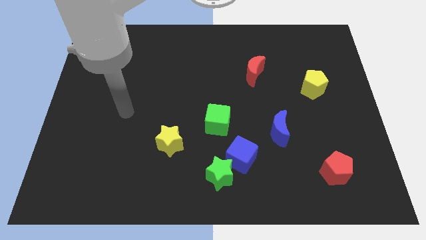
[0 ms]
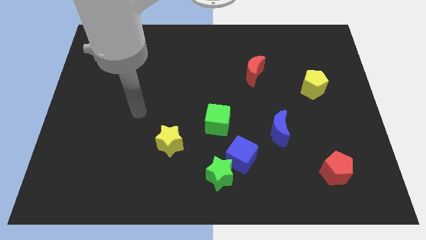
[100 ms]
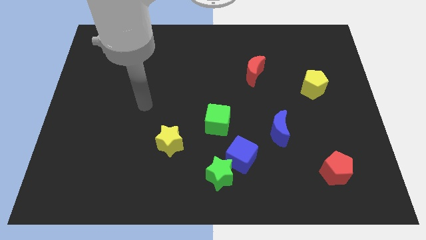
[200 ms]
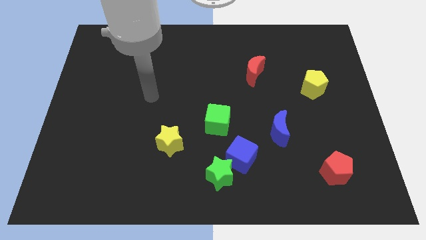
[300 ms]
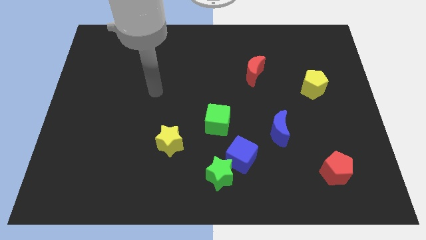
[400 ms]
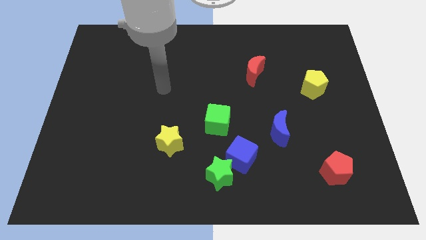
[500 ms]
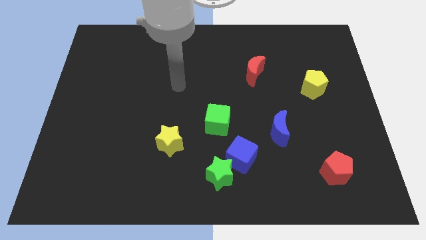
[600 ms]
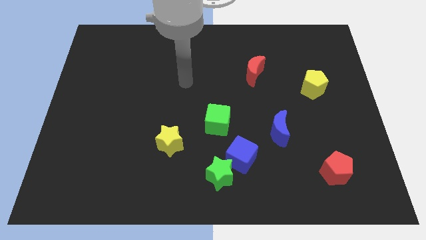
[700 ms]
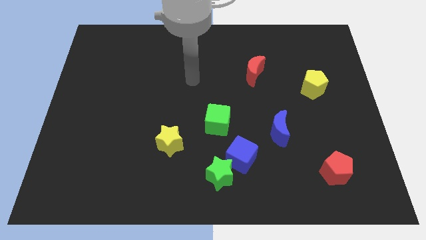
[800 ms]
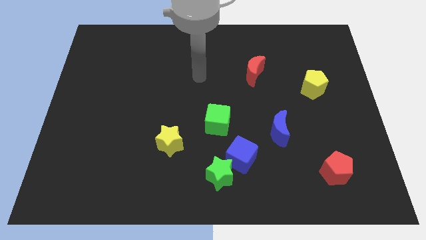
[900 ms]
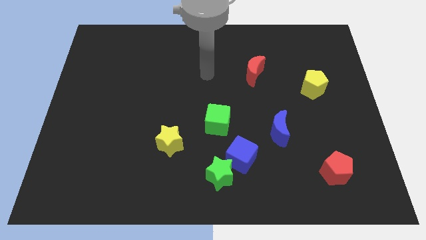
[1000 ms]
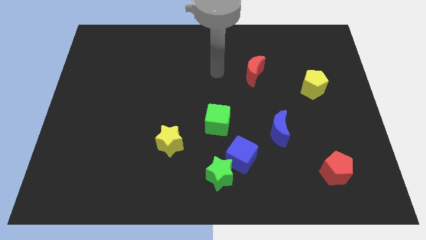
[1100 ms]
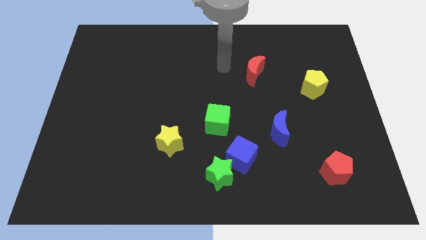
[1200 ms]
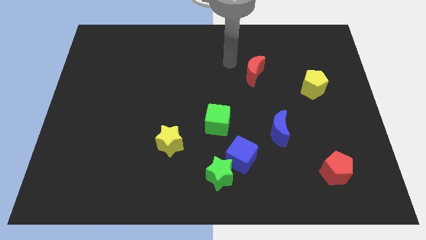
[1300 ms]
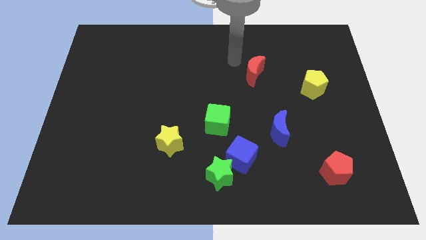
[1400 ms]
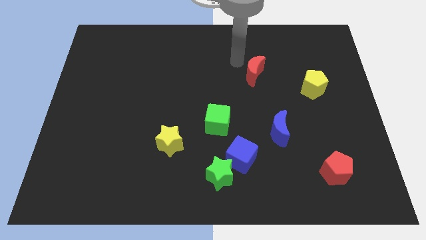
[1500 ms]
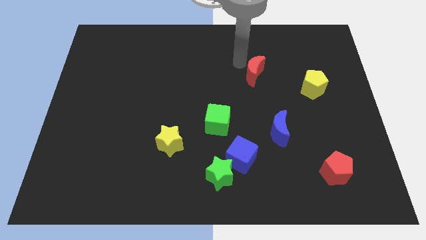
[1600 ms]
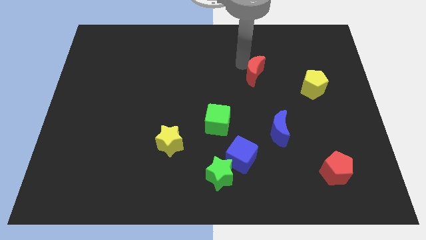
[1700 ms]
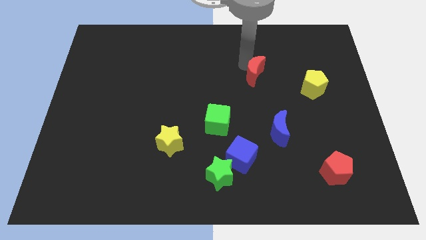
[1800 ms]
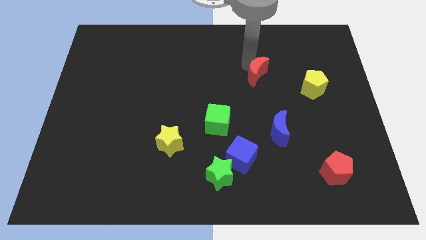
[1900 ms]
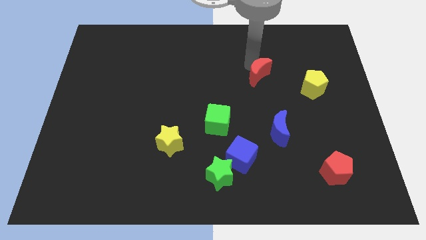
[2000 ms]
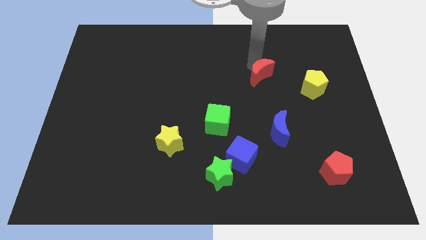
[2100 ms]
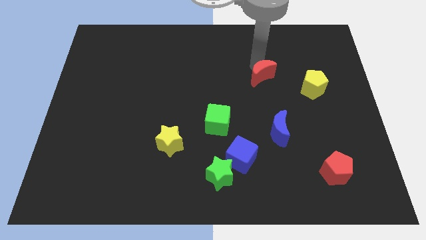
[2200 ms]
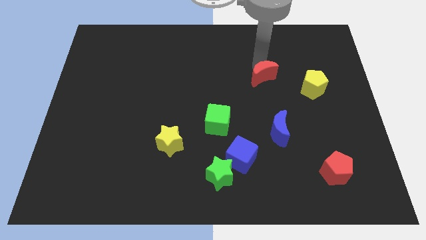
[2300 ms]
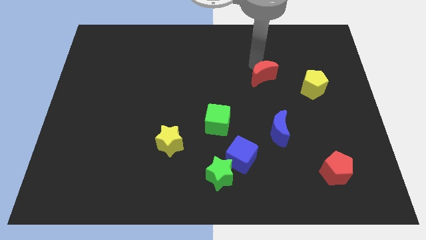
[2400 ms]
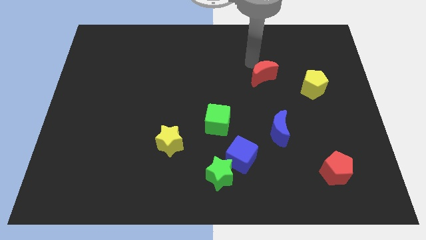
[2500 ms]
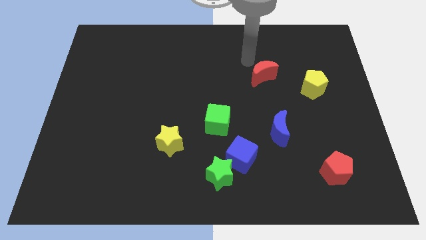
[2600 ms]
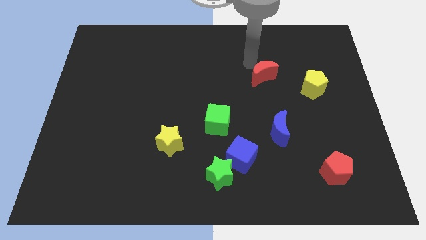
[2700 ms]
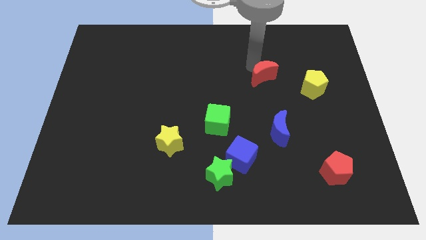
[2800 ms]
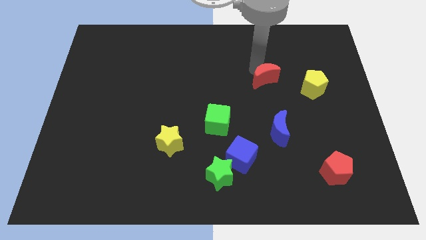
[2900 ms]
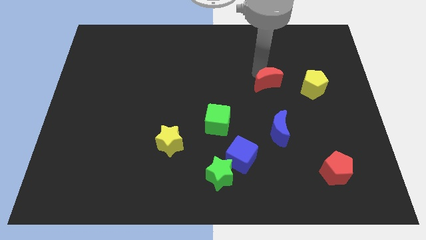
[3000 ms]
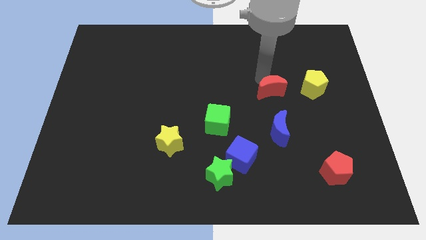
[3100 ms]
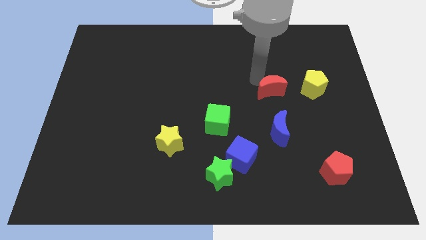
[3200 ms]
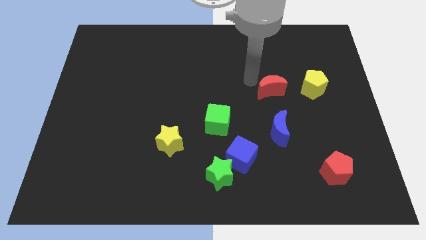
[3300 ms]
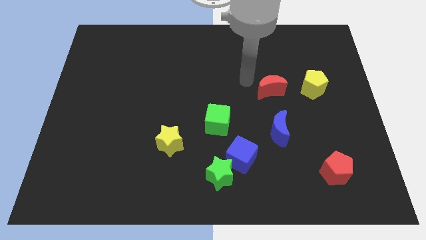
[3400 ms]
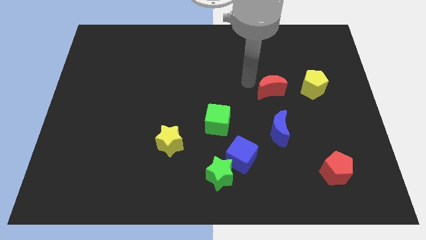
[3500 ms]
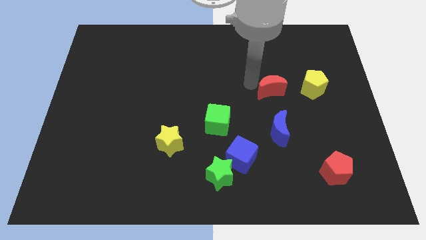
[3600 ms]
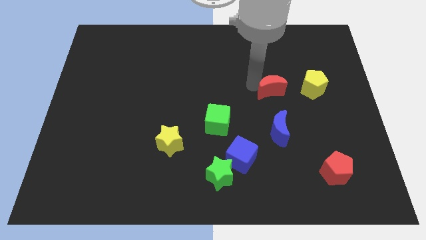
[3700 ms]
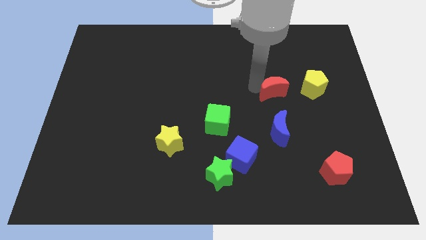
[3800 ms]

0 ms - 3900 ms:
slightly push the red moon down and right

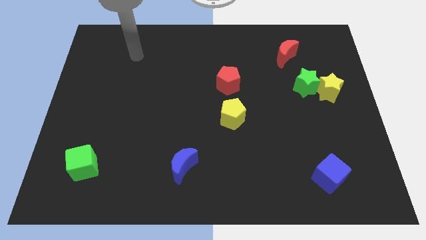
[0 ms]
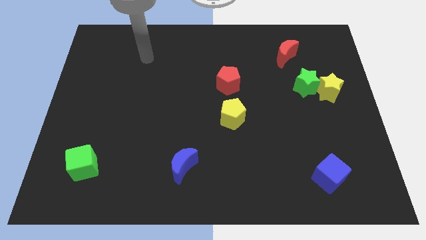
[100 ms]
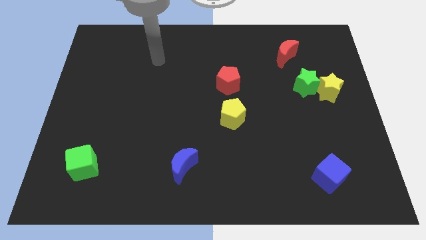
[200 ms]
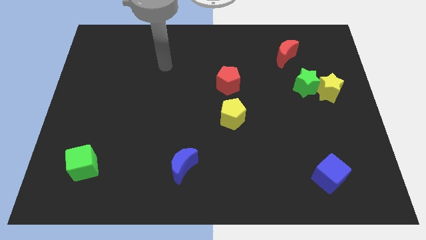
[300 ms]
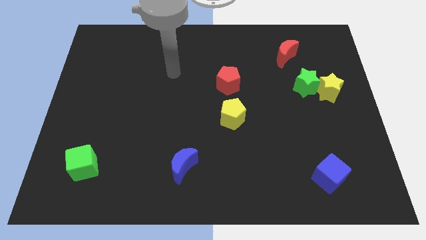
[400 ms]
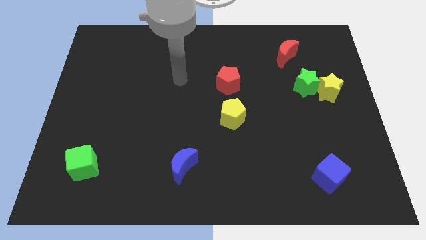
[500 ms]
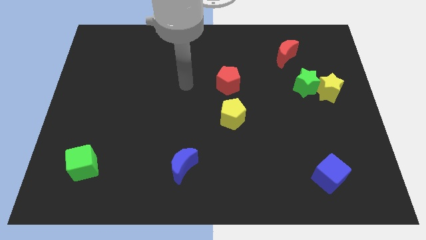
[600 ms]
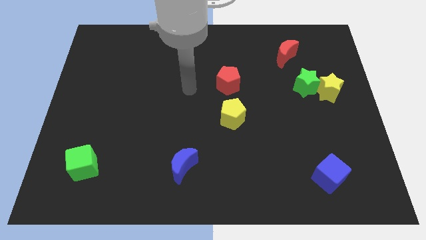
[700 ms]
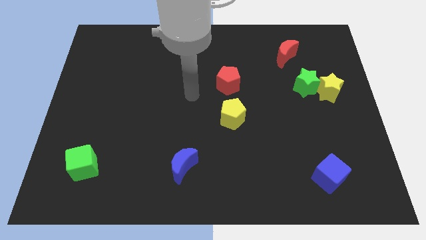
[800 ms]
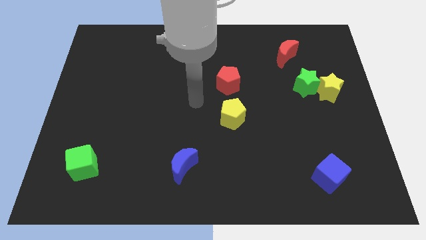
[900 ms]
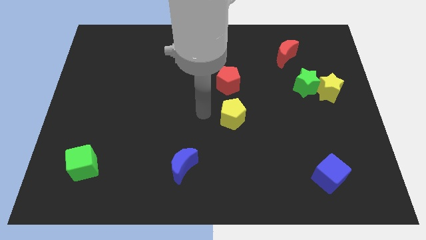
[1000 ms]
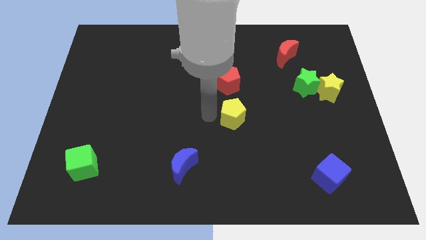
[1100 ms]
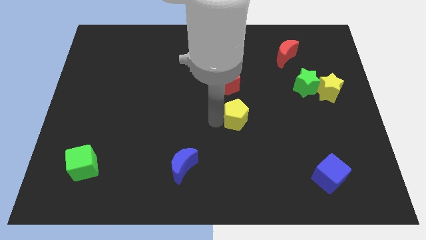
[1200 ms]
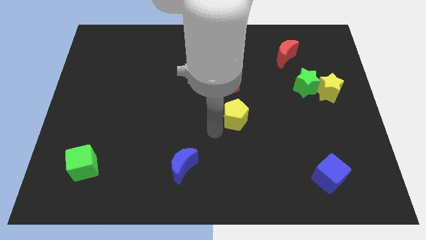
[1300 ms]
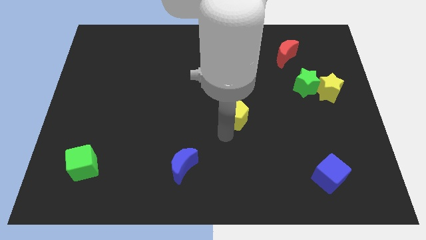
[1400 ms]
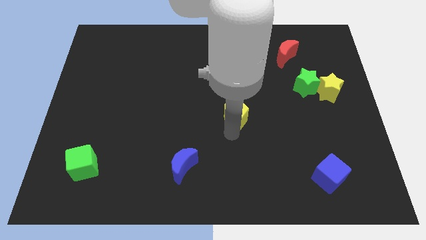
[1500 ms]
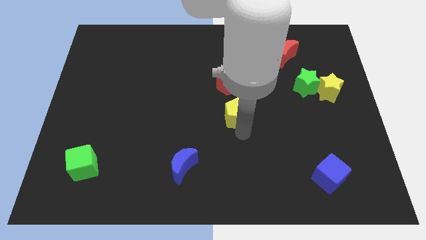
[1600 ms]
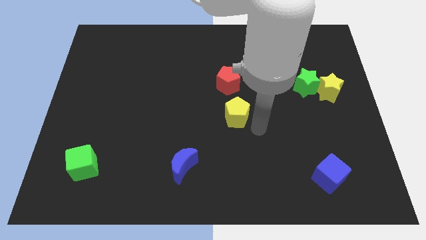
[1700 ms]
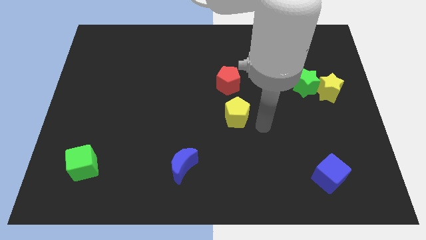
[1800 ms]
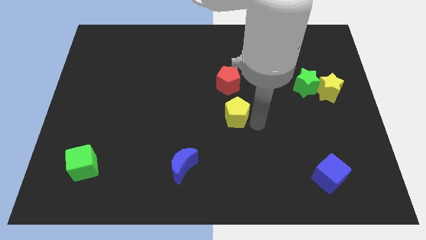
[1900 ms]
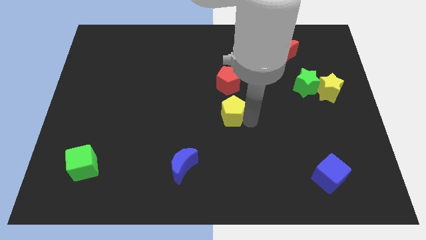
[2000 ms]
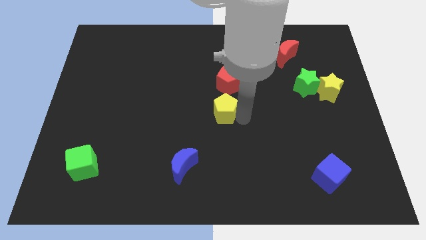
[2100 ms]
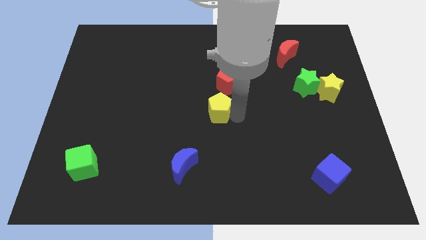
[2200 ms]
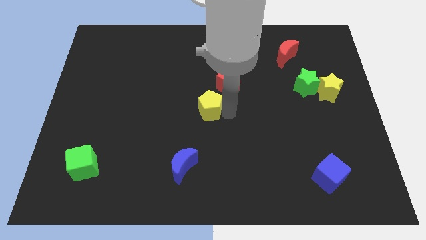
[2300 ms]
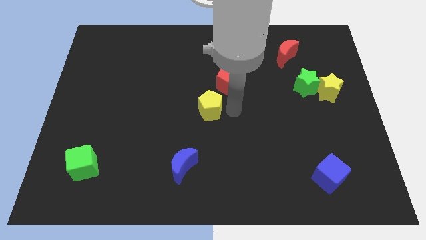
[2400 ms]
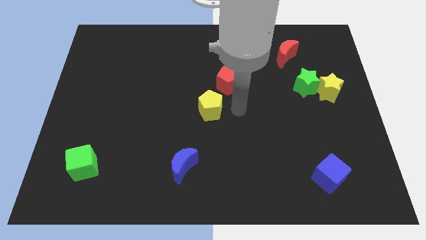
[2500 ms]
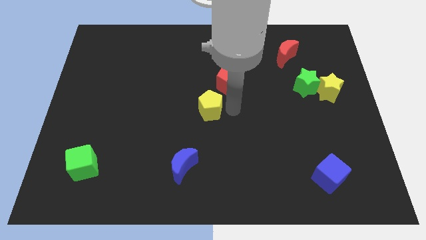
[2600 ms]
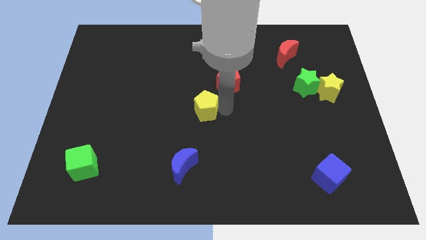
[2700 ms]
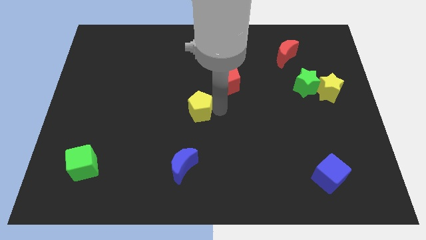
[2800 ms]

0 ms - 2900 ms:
move the yellow pentagon to the left a bit

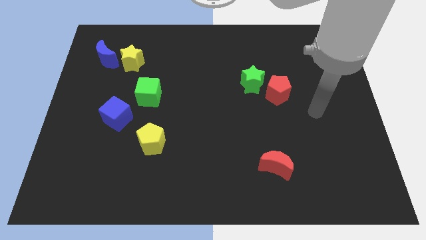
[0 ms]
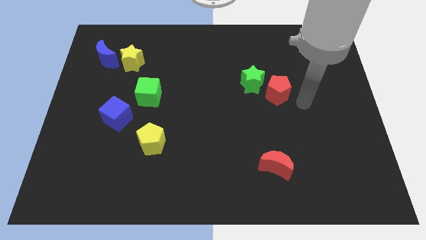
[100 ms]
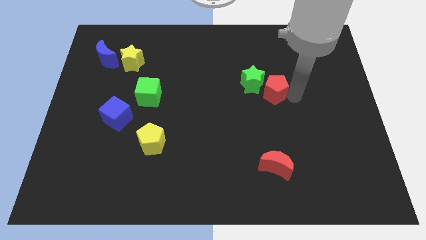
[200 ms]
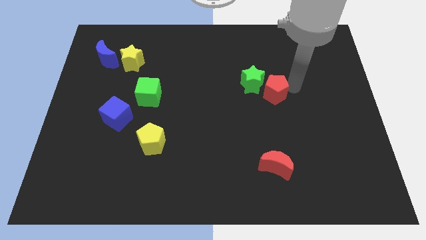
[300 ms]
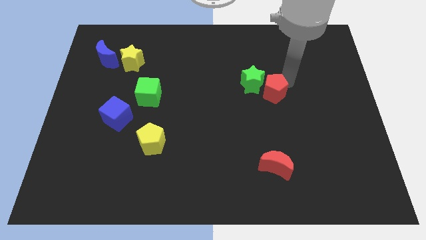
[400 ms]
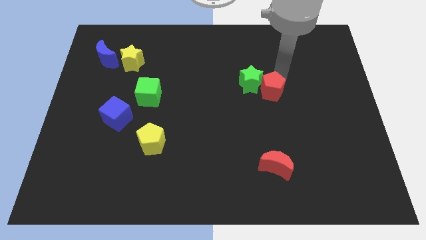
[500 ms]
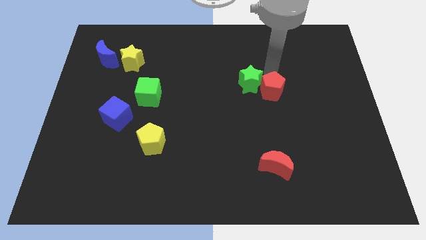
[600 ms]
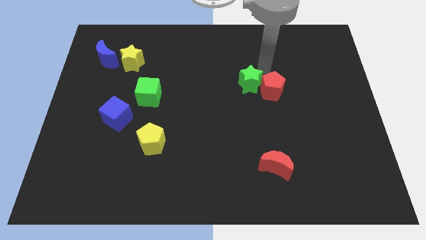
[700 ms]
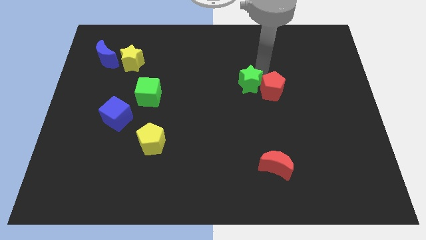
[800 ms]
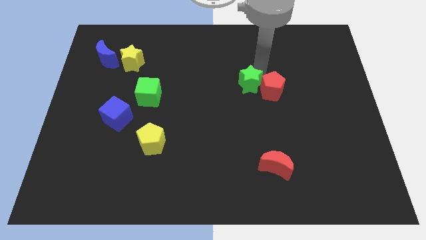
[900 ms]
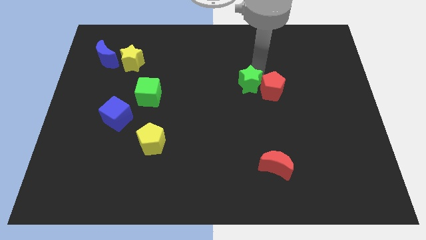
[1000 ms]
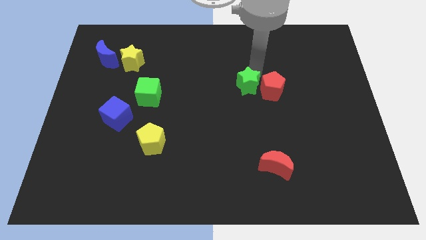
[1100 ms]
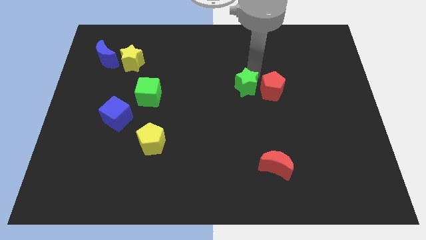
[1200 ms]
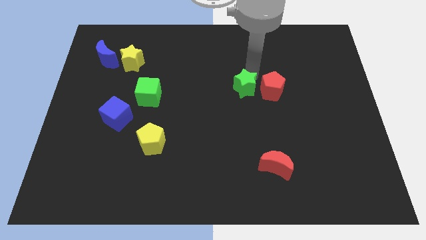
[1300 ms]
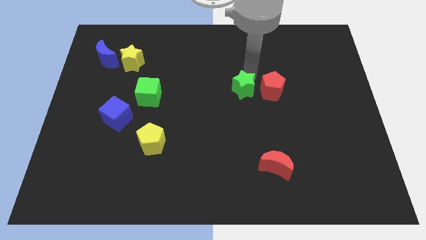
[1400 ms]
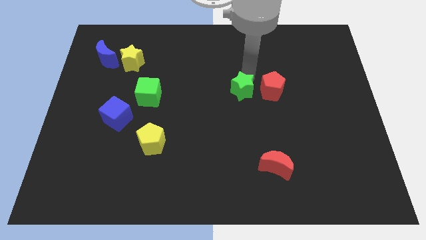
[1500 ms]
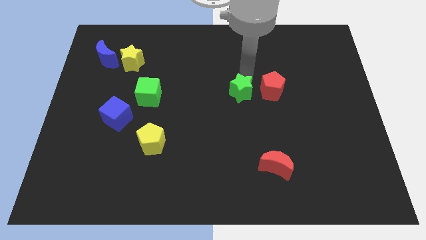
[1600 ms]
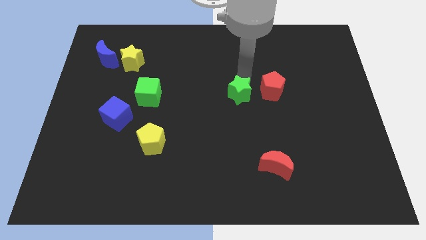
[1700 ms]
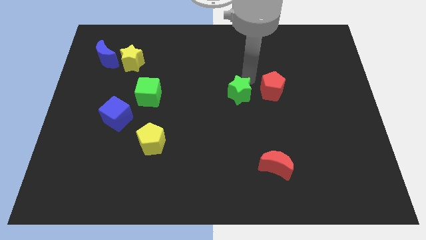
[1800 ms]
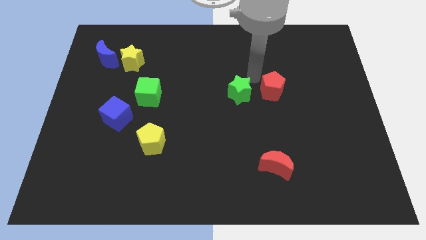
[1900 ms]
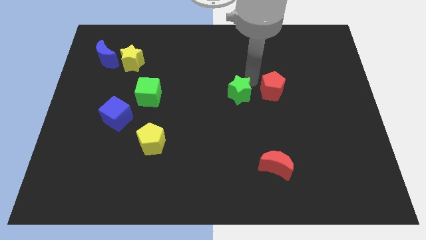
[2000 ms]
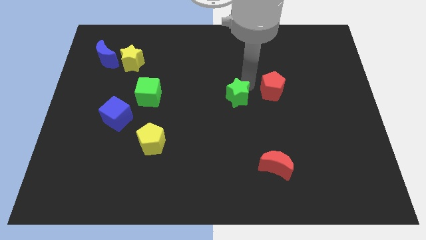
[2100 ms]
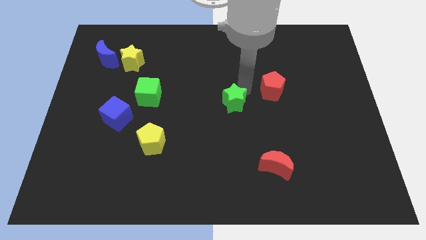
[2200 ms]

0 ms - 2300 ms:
slightly move the green star downwards and to the left
